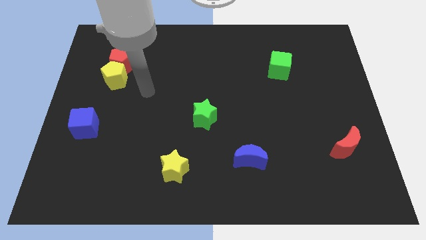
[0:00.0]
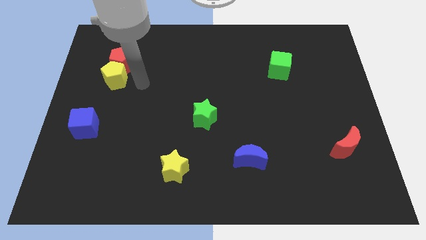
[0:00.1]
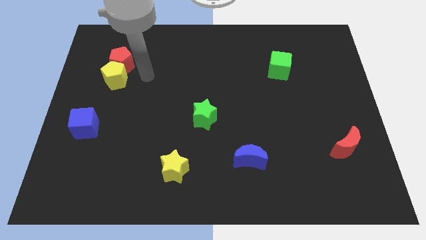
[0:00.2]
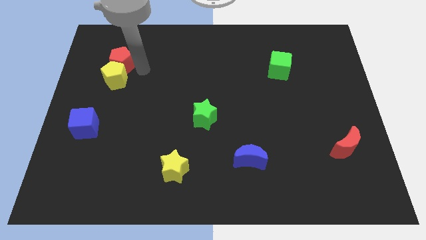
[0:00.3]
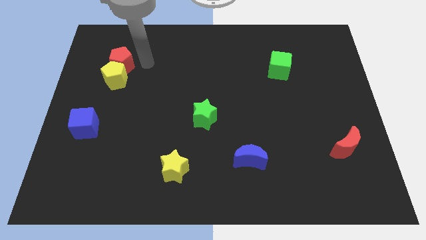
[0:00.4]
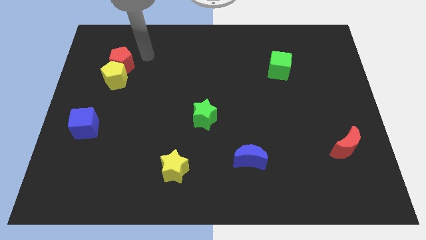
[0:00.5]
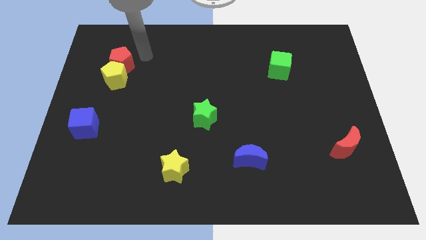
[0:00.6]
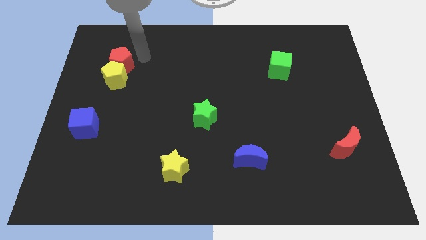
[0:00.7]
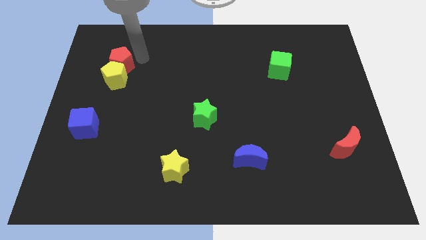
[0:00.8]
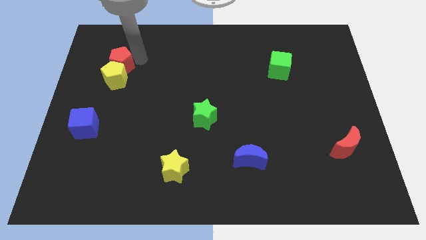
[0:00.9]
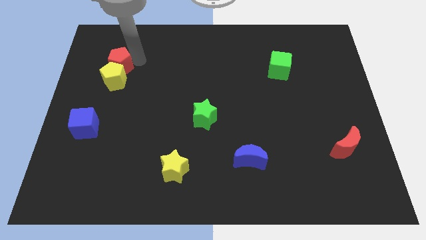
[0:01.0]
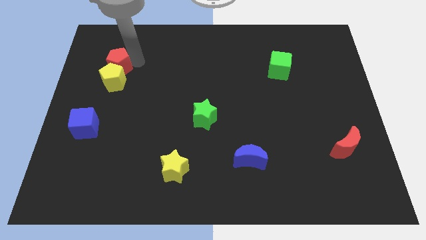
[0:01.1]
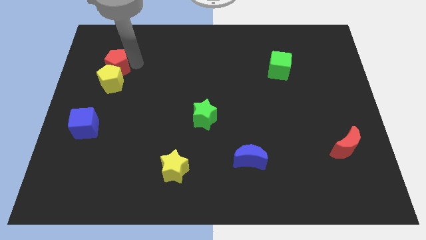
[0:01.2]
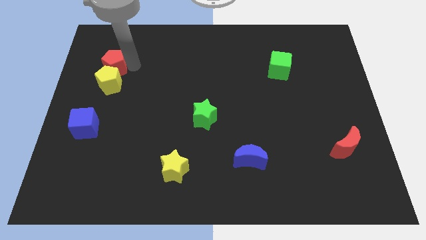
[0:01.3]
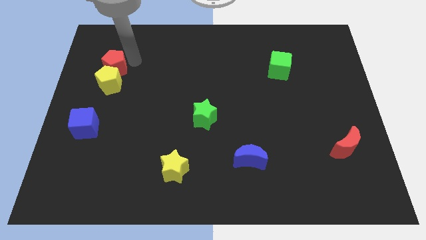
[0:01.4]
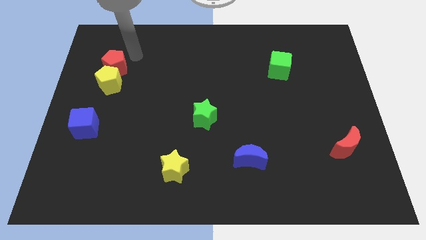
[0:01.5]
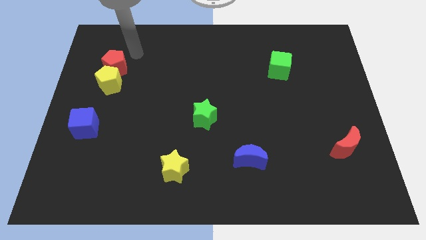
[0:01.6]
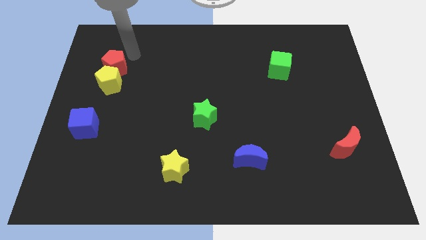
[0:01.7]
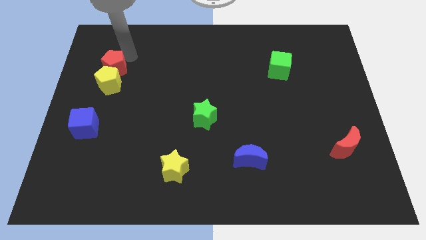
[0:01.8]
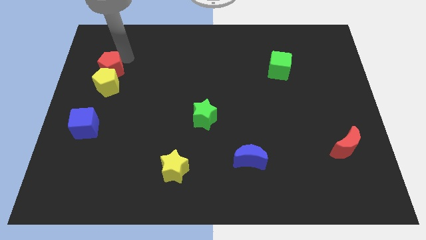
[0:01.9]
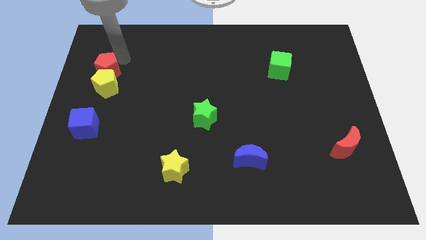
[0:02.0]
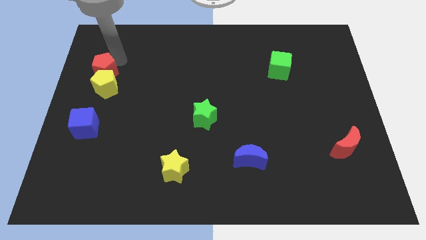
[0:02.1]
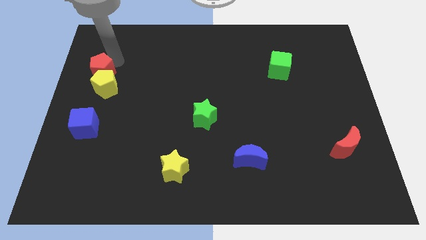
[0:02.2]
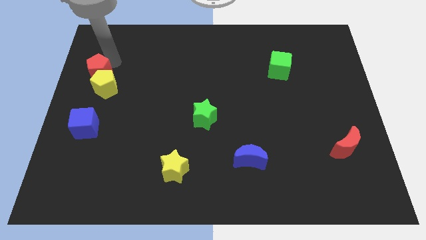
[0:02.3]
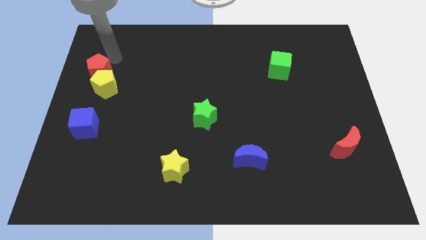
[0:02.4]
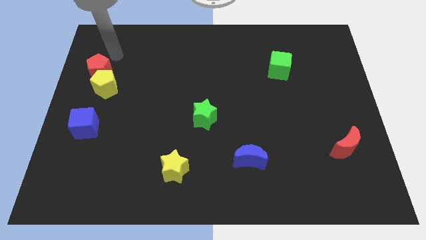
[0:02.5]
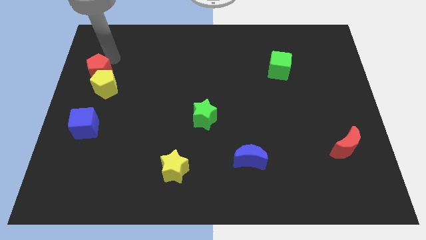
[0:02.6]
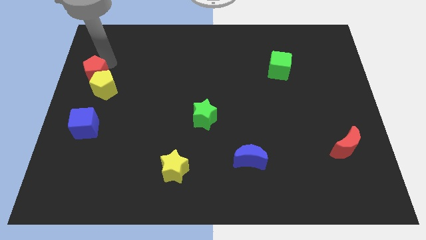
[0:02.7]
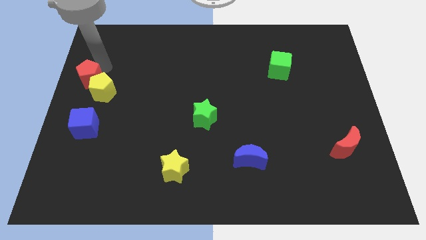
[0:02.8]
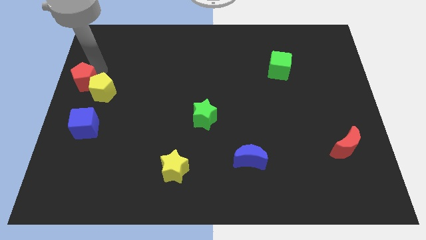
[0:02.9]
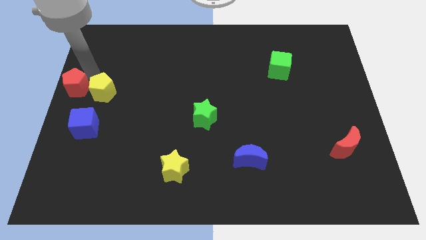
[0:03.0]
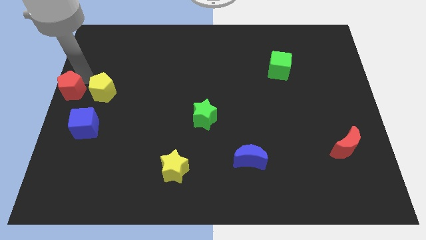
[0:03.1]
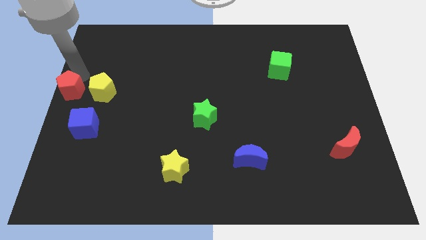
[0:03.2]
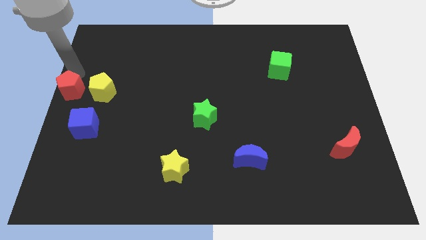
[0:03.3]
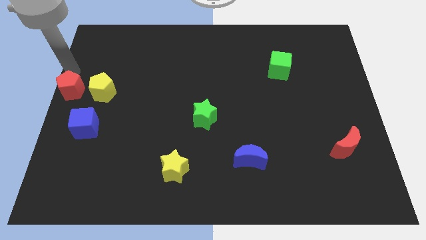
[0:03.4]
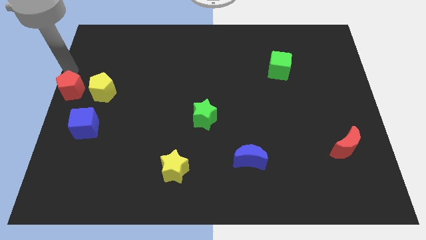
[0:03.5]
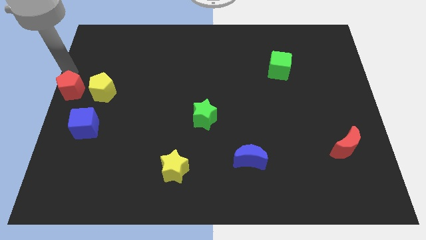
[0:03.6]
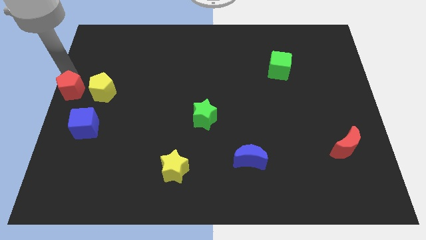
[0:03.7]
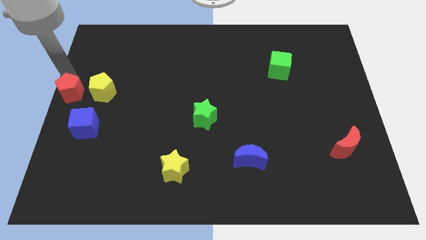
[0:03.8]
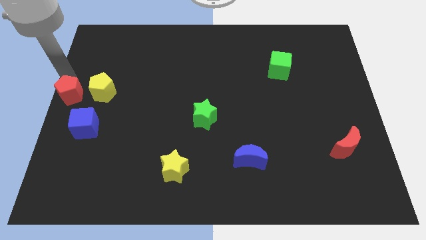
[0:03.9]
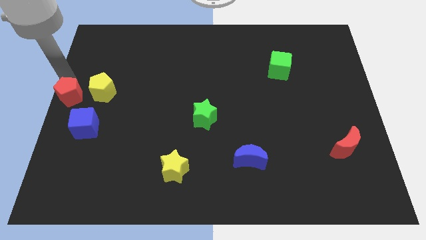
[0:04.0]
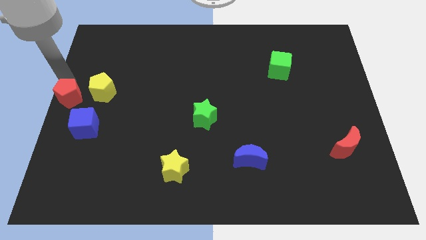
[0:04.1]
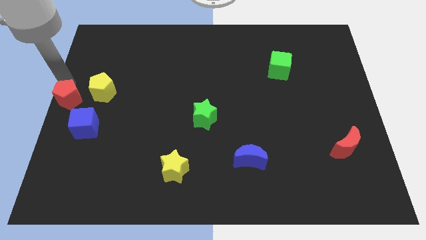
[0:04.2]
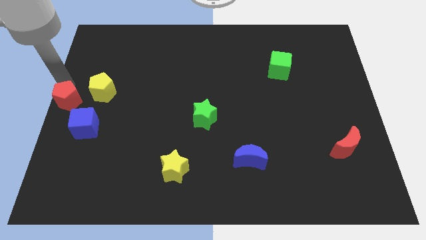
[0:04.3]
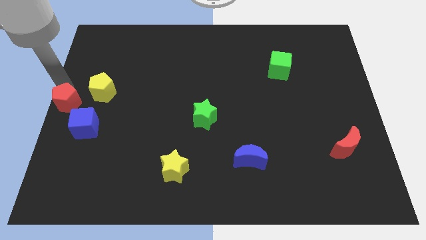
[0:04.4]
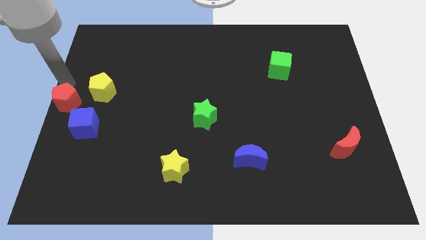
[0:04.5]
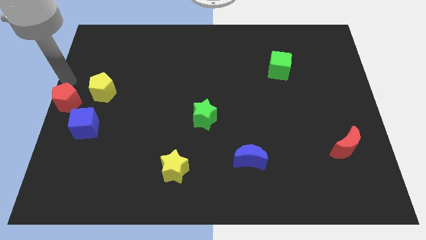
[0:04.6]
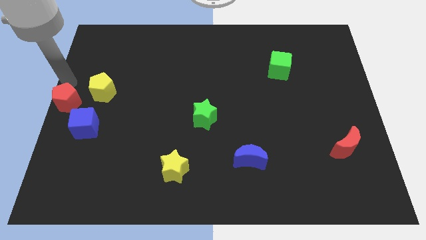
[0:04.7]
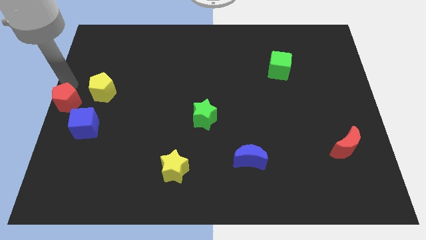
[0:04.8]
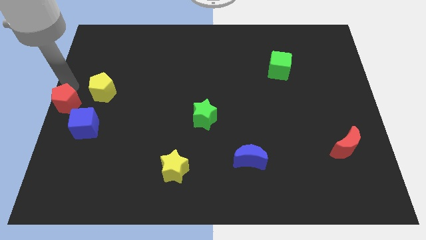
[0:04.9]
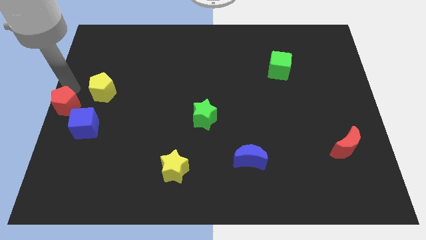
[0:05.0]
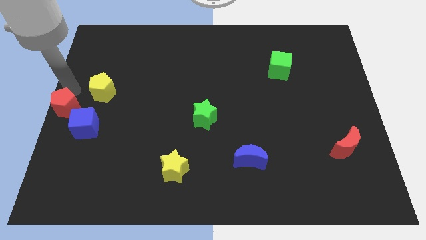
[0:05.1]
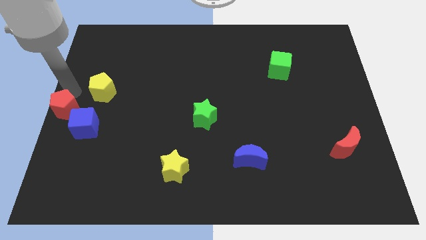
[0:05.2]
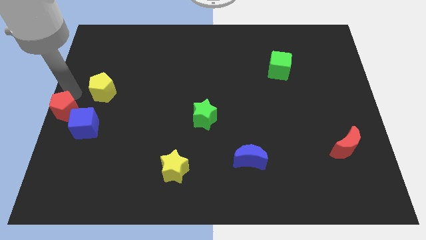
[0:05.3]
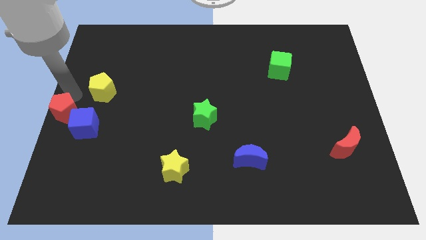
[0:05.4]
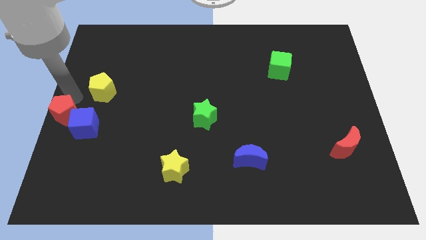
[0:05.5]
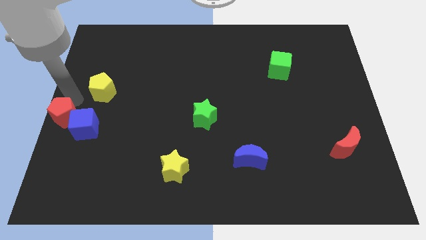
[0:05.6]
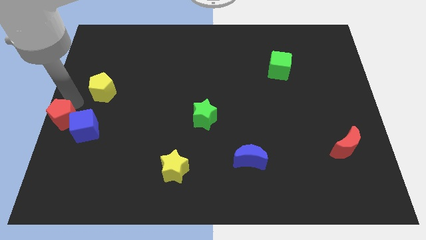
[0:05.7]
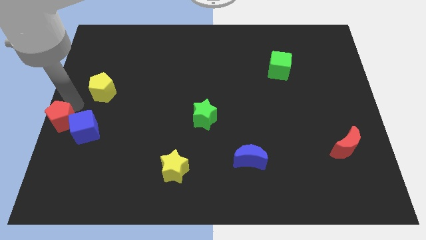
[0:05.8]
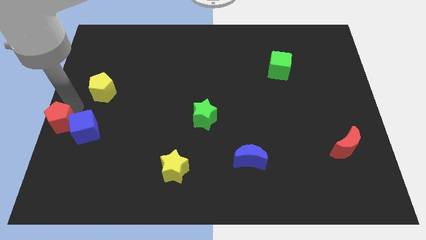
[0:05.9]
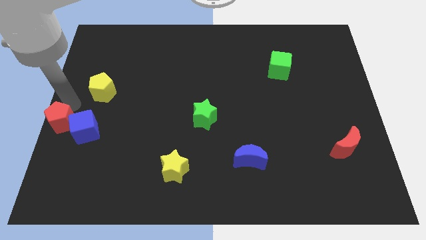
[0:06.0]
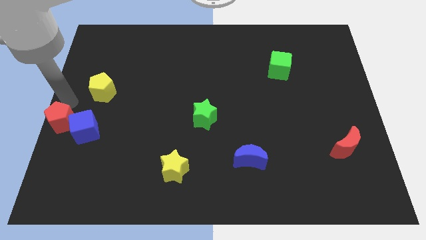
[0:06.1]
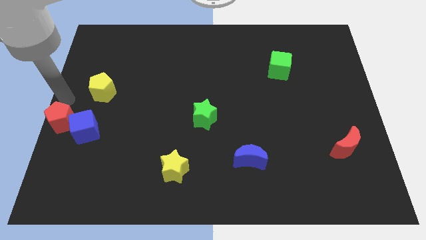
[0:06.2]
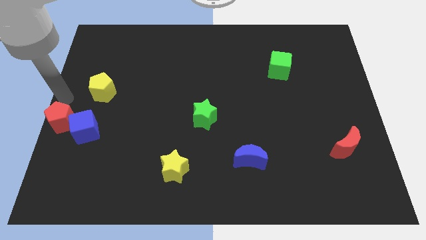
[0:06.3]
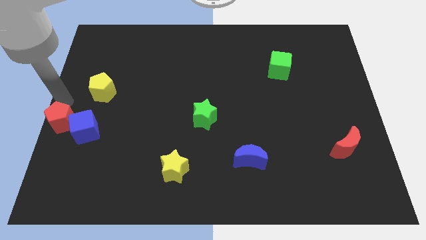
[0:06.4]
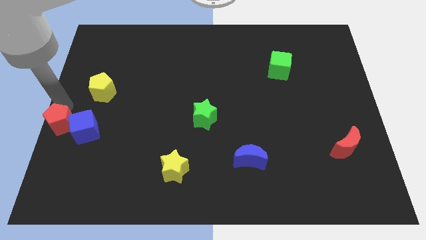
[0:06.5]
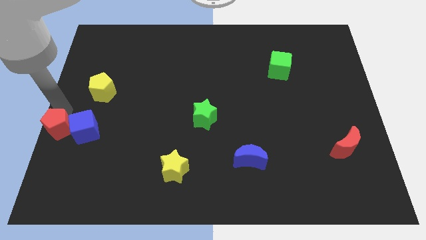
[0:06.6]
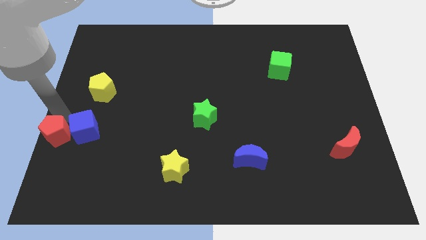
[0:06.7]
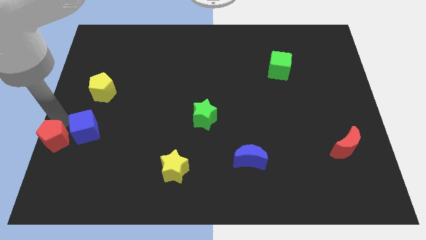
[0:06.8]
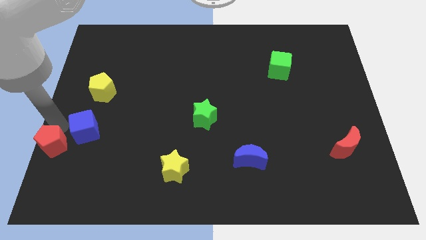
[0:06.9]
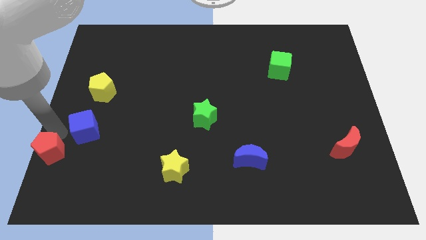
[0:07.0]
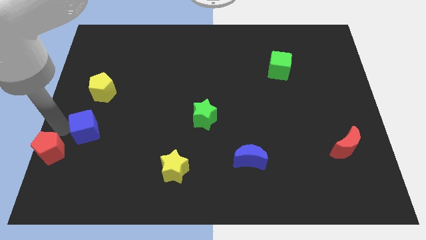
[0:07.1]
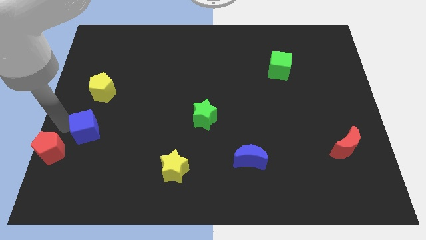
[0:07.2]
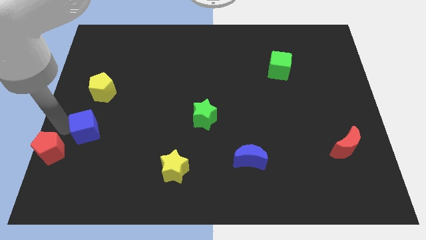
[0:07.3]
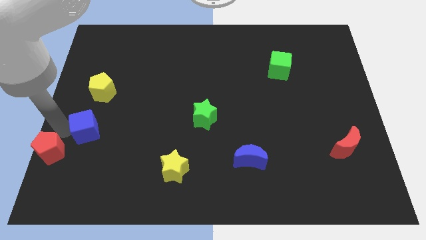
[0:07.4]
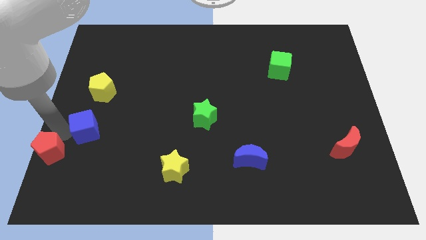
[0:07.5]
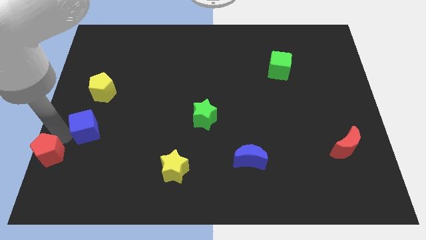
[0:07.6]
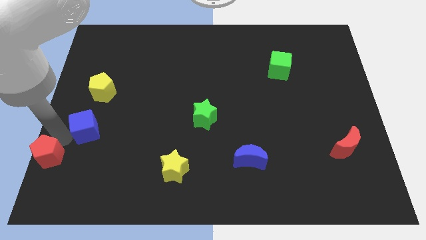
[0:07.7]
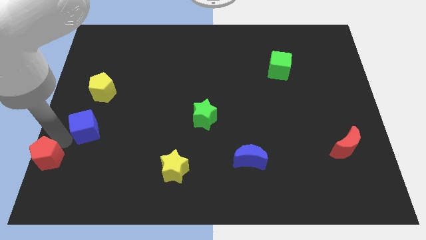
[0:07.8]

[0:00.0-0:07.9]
put the red pentagon to the bottom left of the board

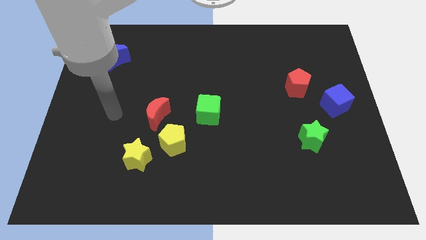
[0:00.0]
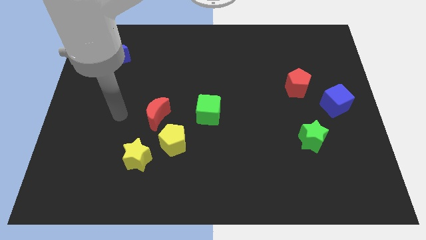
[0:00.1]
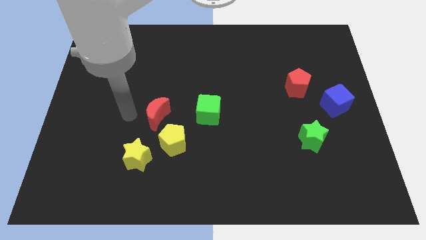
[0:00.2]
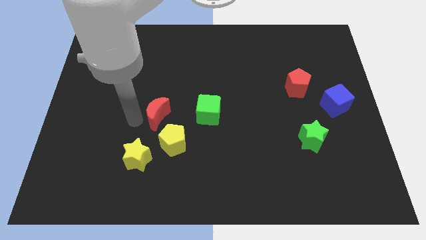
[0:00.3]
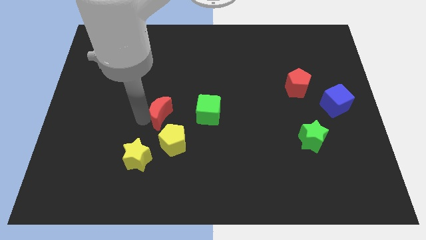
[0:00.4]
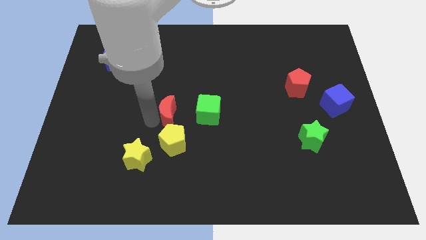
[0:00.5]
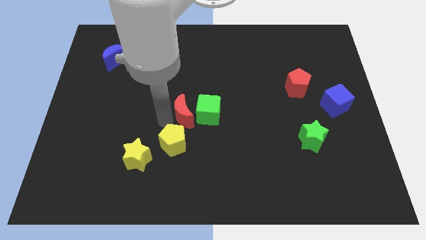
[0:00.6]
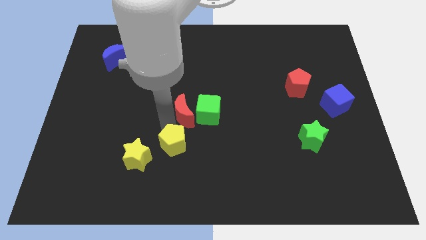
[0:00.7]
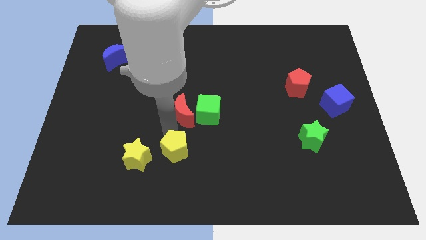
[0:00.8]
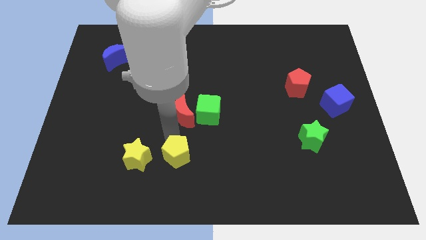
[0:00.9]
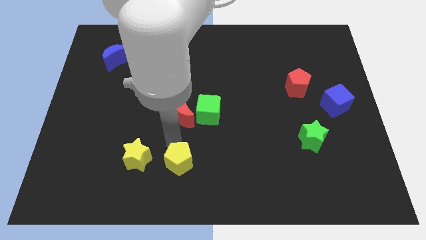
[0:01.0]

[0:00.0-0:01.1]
push the yellow pentagon to the bottom
